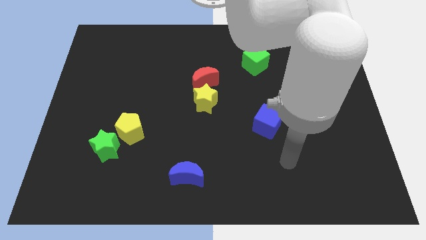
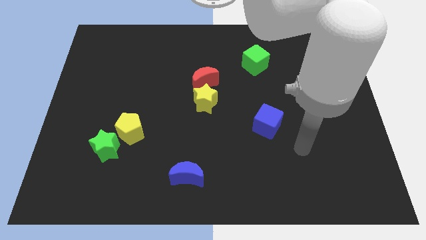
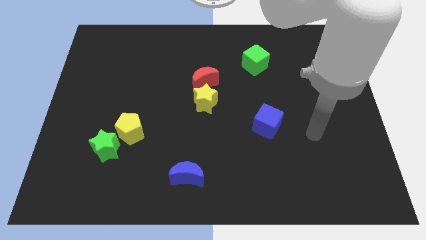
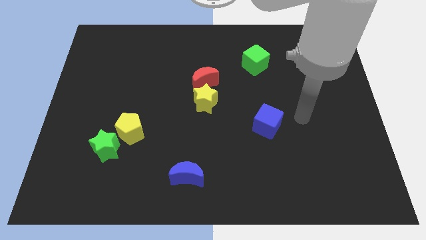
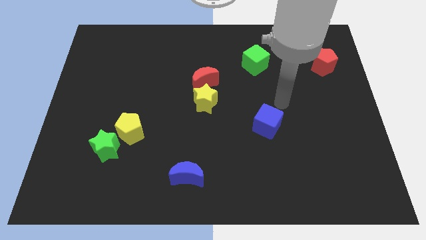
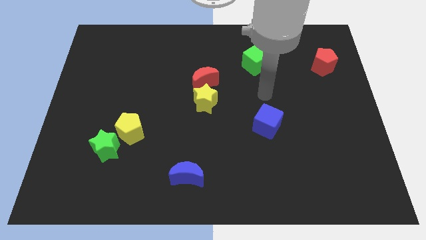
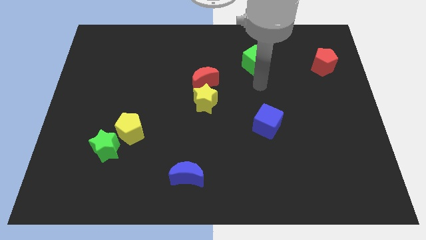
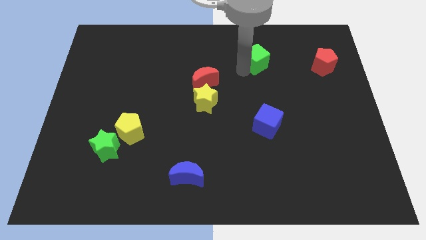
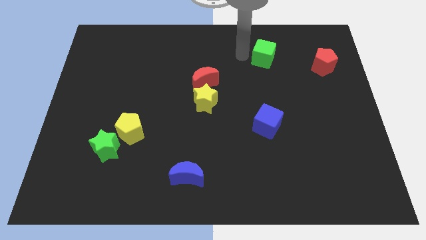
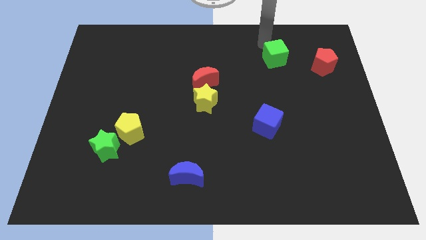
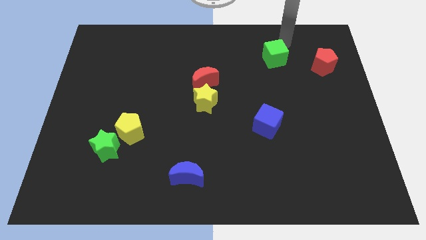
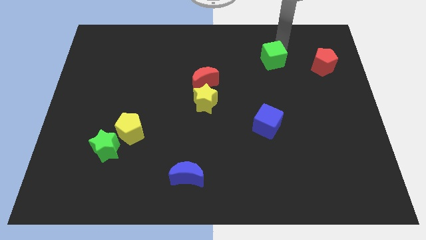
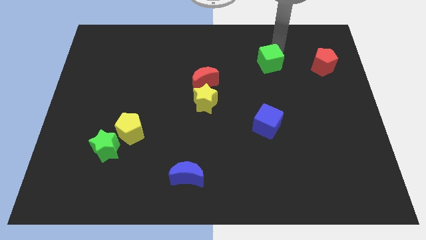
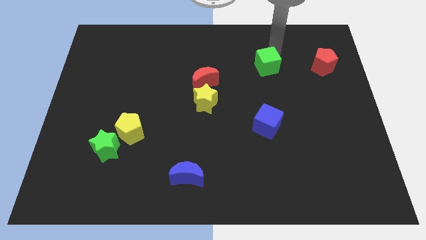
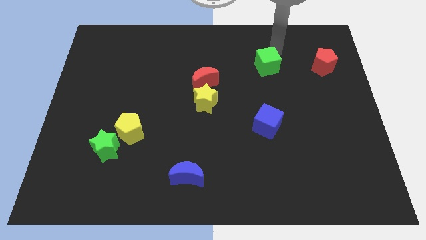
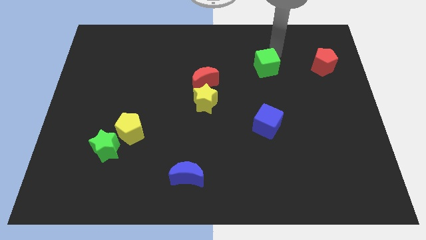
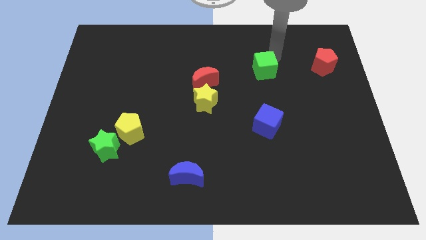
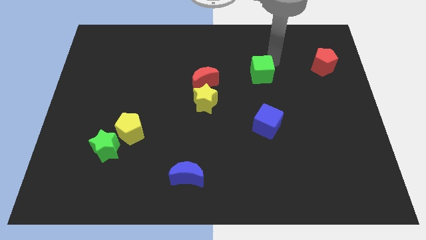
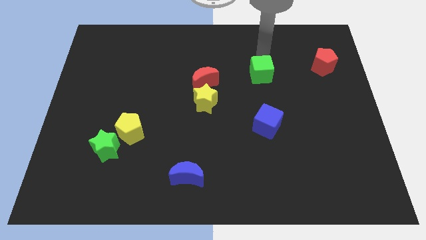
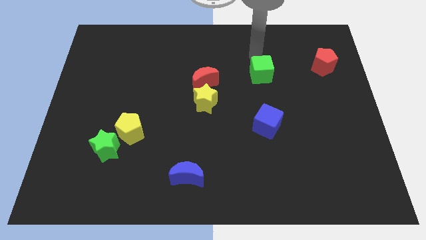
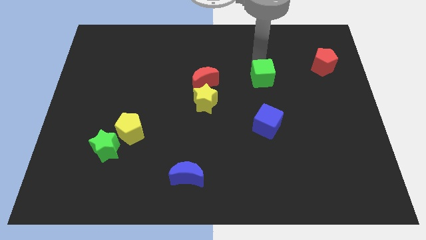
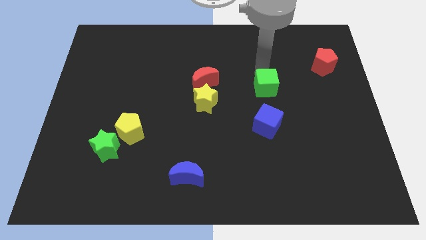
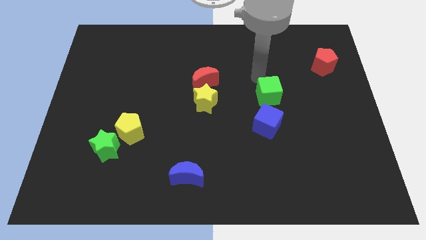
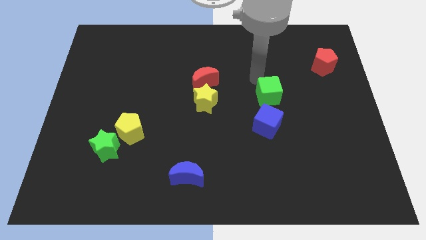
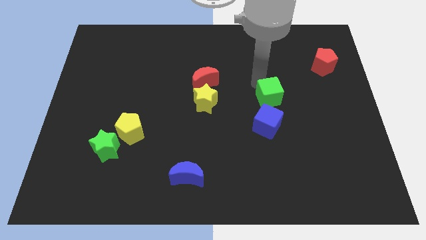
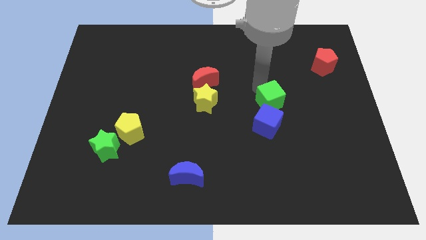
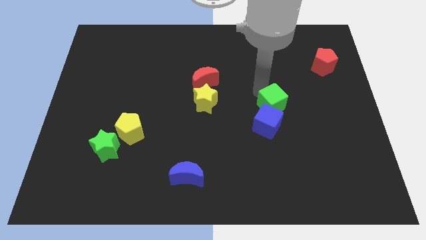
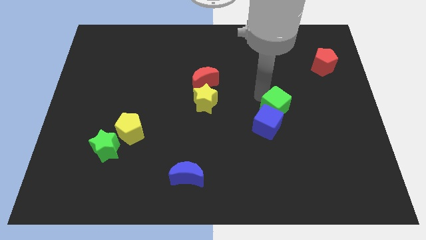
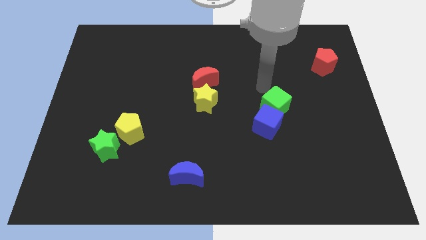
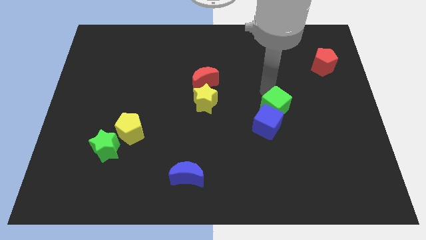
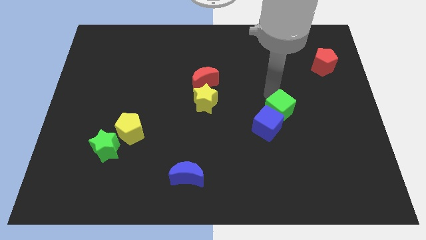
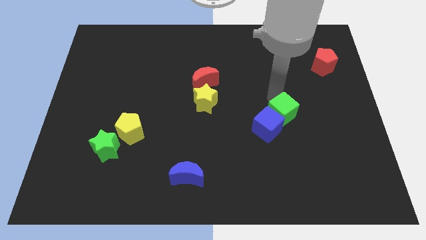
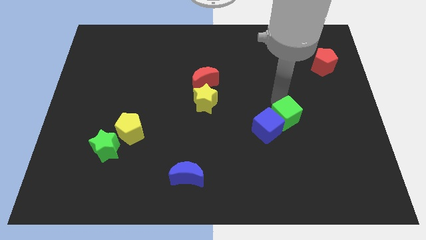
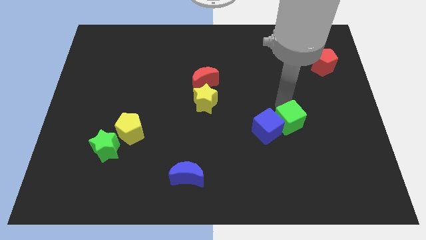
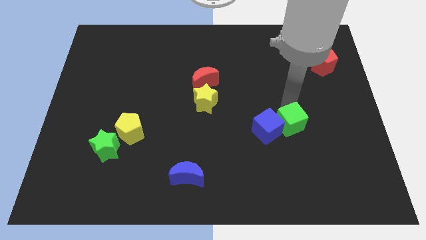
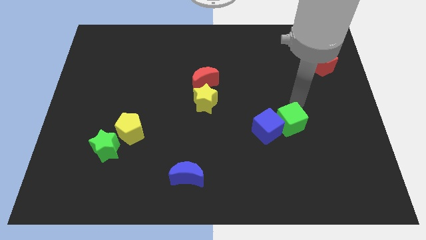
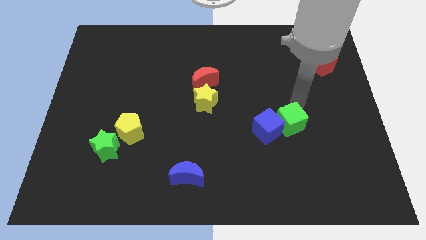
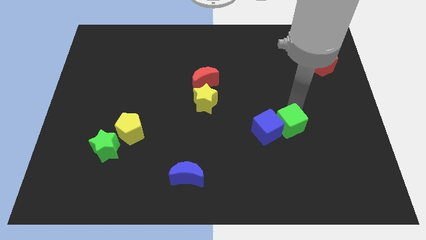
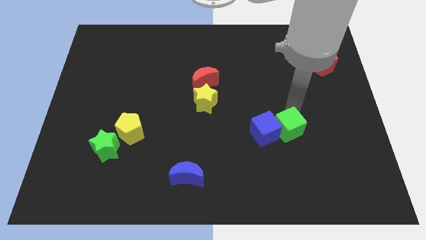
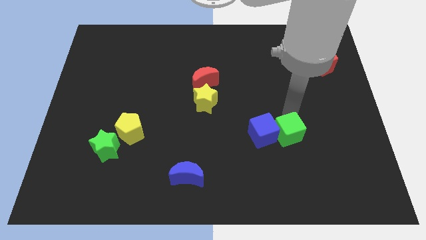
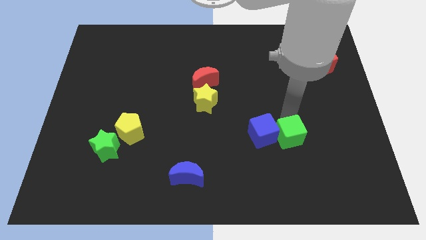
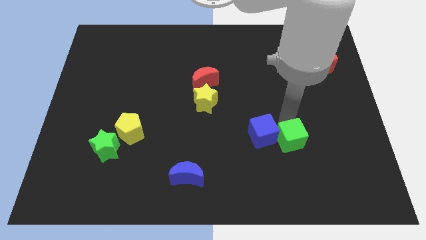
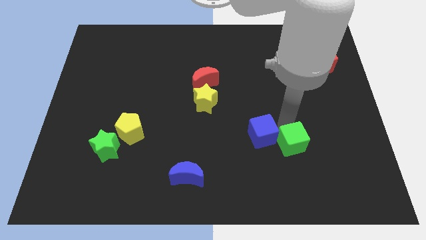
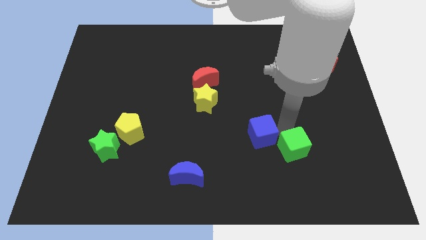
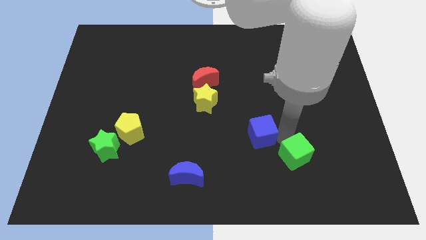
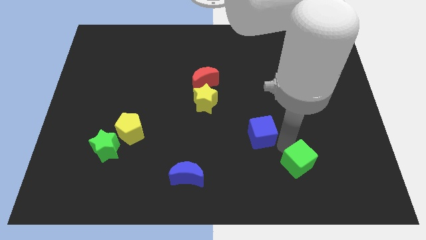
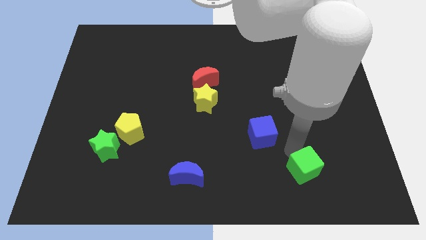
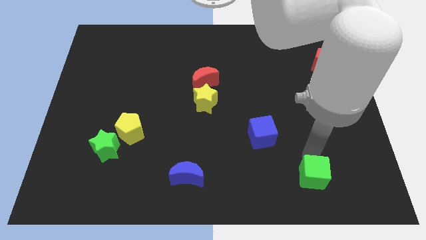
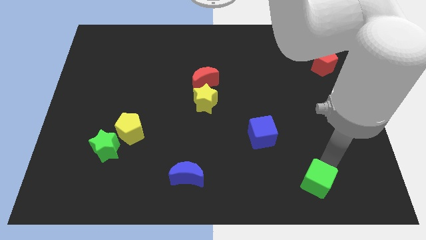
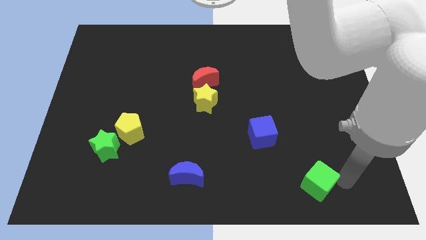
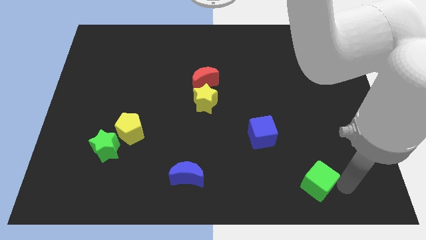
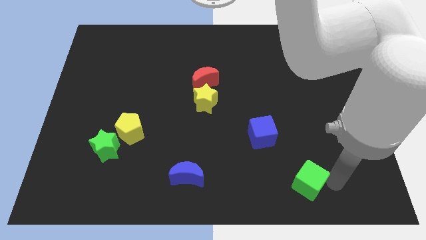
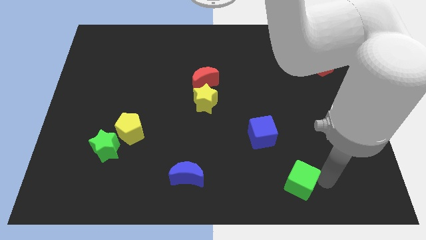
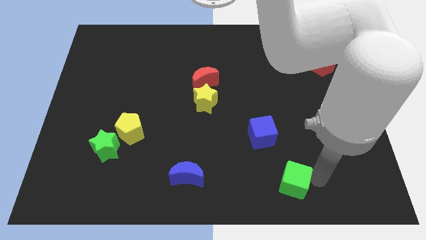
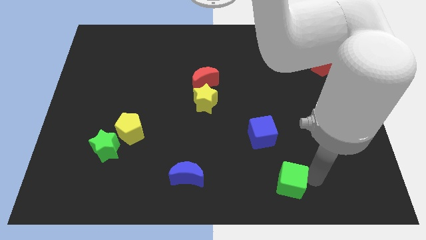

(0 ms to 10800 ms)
move the green cube to the bottom of the blue cube

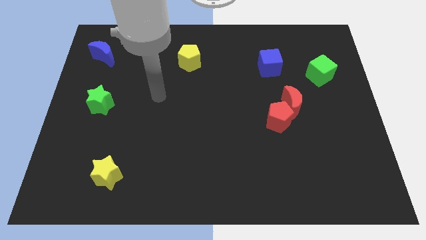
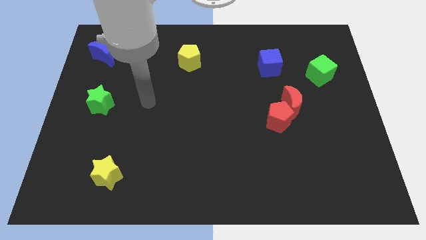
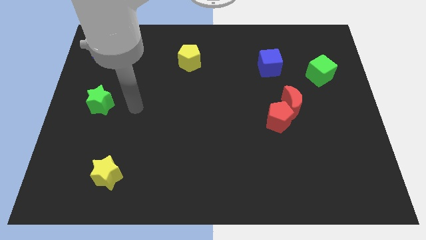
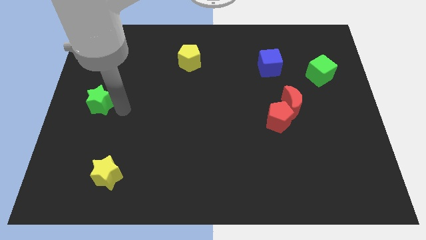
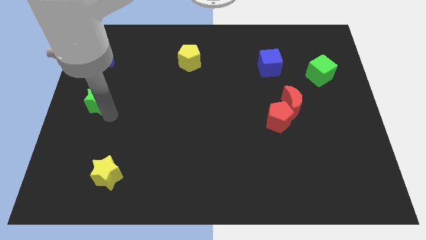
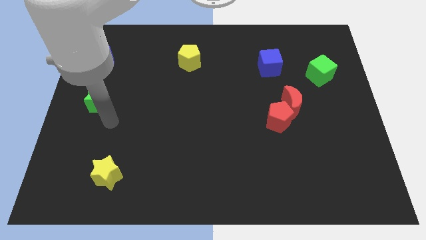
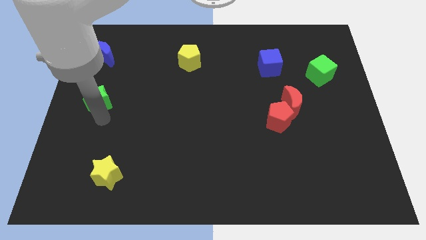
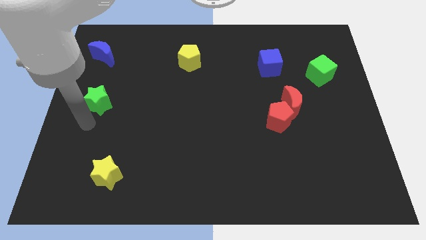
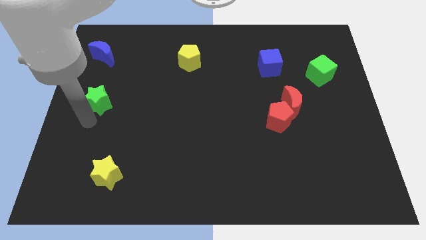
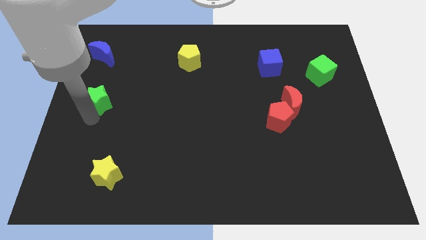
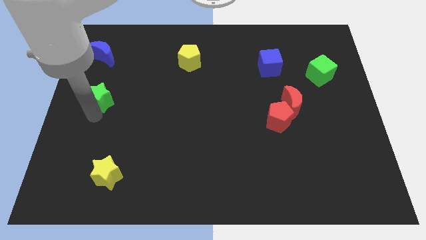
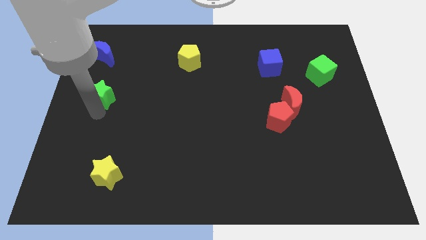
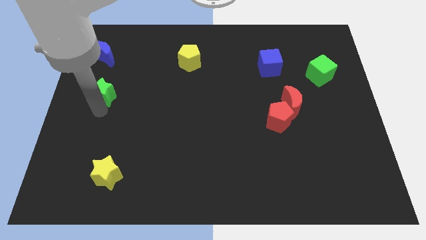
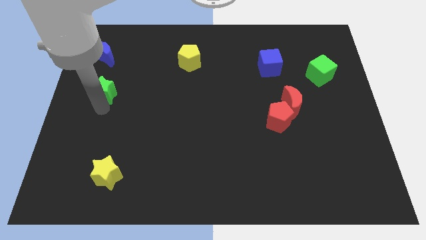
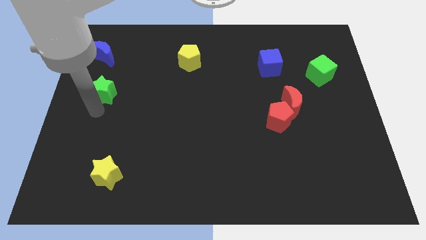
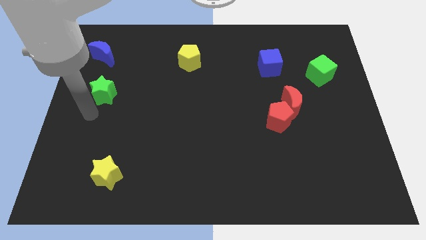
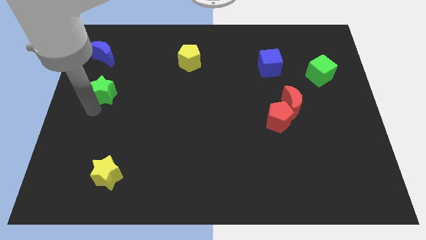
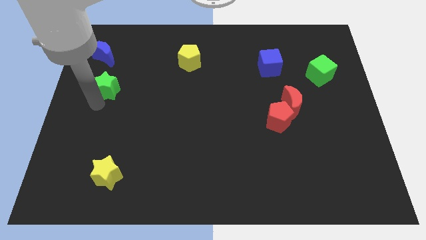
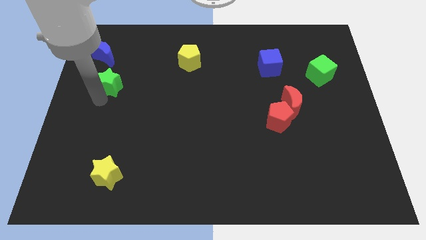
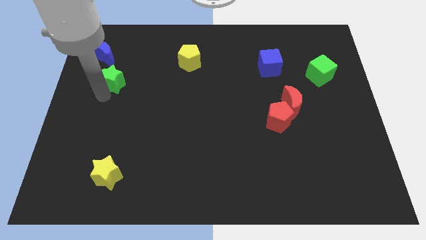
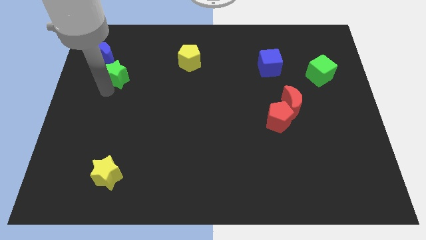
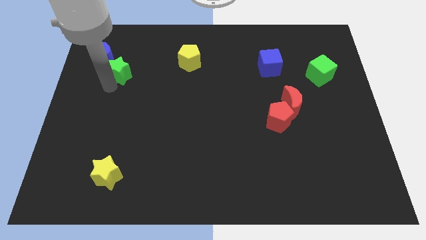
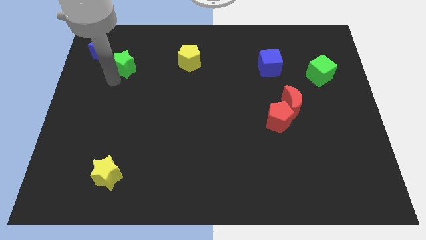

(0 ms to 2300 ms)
move the green star just right of the blue moon
